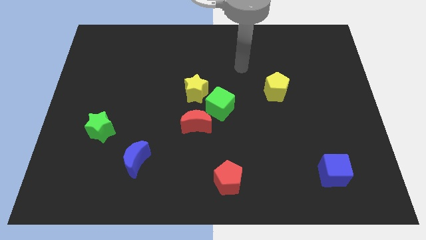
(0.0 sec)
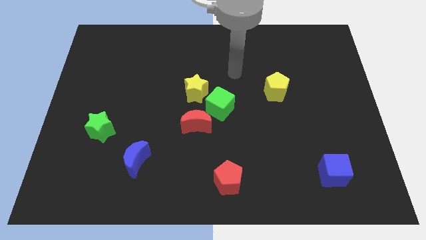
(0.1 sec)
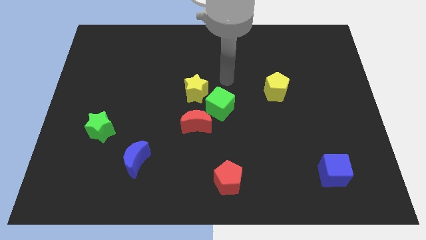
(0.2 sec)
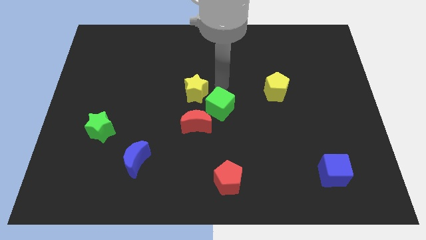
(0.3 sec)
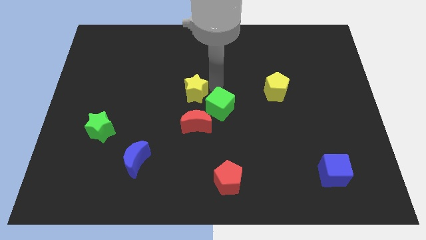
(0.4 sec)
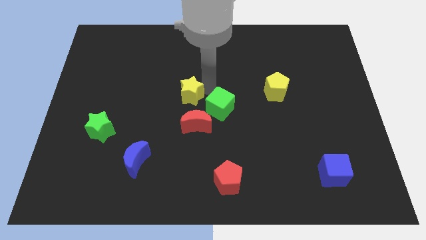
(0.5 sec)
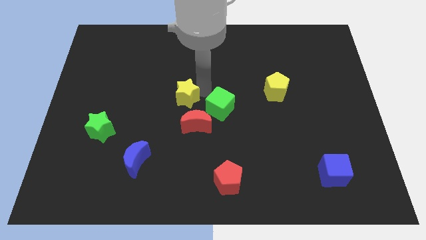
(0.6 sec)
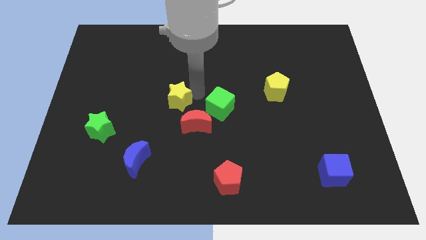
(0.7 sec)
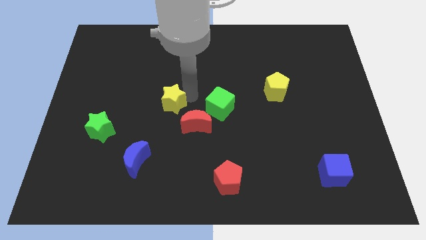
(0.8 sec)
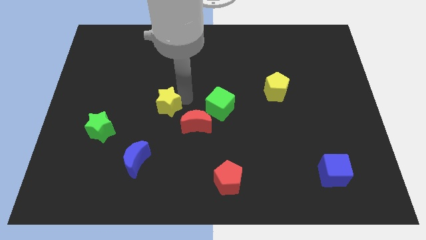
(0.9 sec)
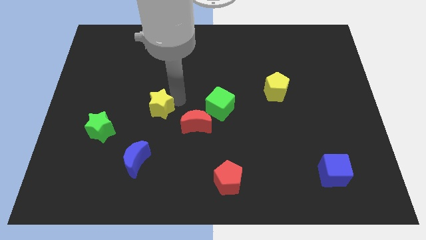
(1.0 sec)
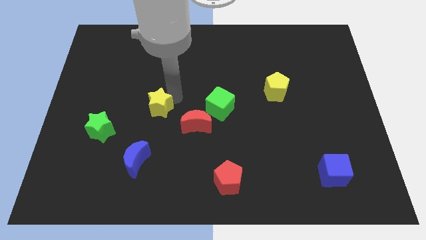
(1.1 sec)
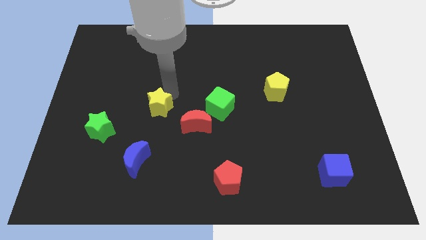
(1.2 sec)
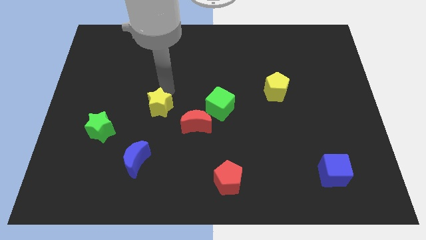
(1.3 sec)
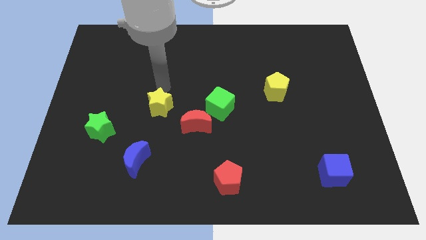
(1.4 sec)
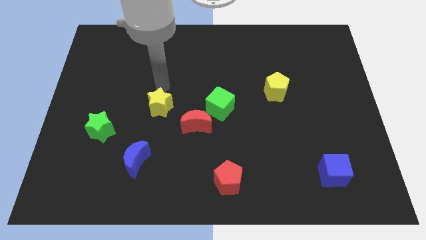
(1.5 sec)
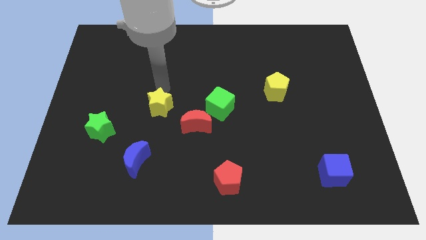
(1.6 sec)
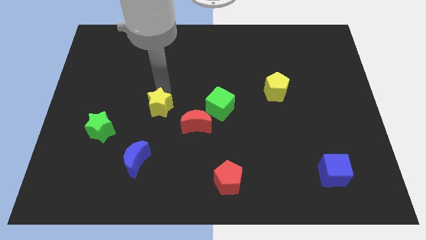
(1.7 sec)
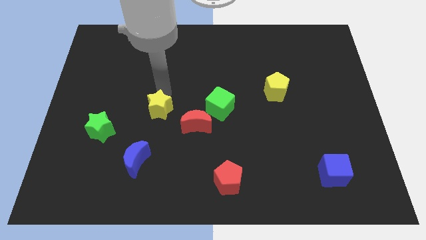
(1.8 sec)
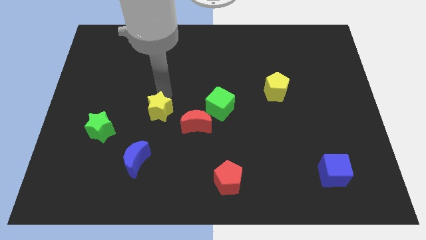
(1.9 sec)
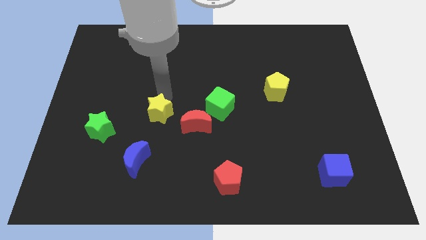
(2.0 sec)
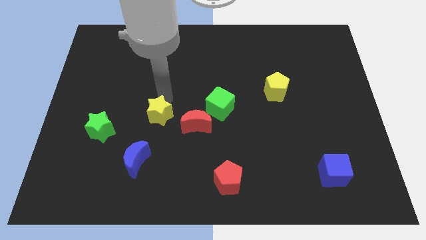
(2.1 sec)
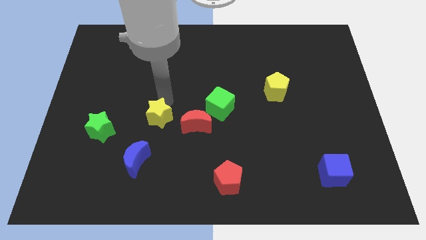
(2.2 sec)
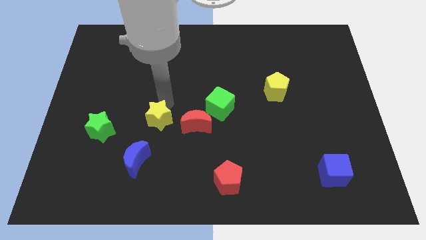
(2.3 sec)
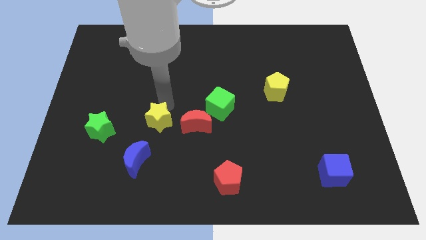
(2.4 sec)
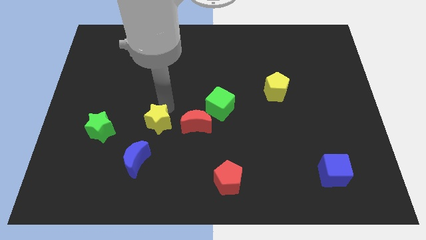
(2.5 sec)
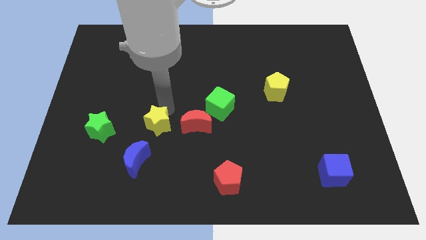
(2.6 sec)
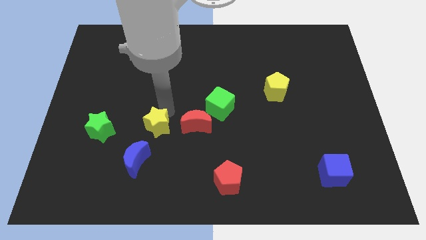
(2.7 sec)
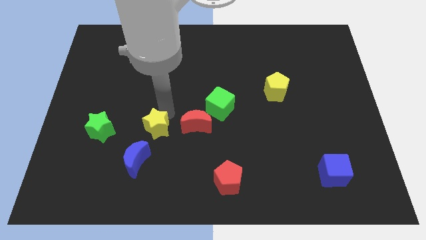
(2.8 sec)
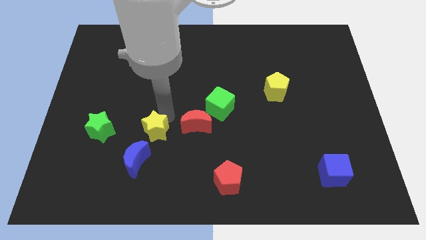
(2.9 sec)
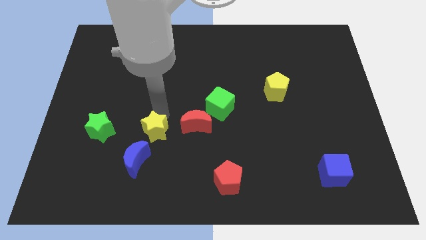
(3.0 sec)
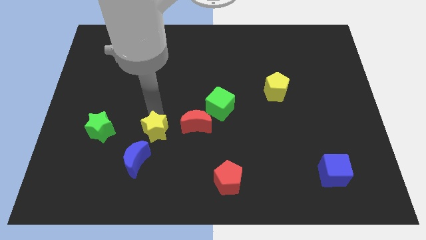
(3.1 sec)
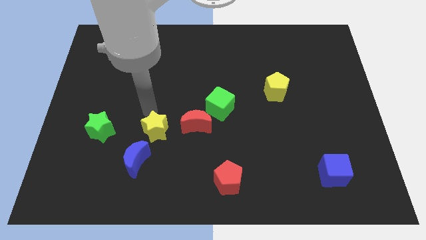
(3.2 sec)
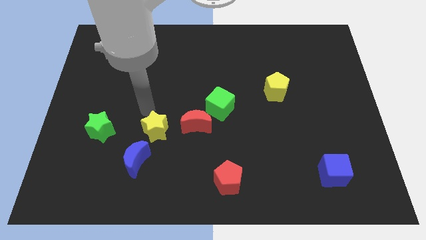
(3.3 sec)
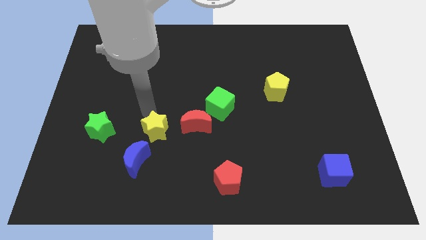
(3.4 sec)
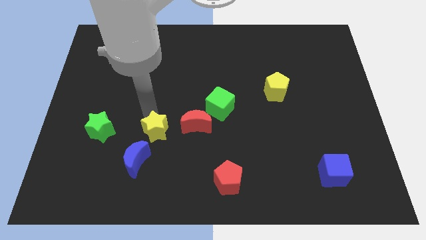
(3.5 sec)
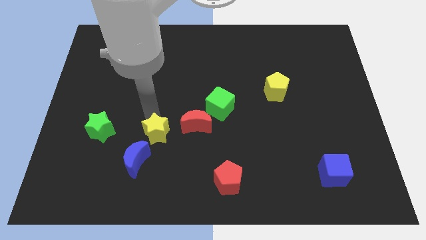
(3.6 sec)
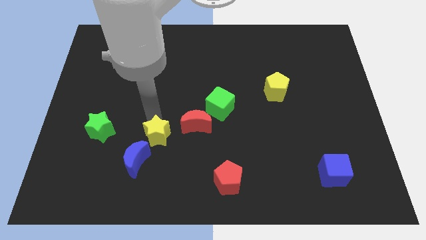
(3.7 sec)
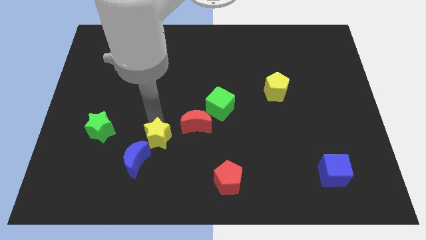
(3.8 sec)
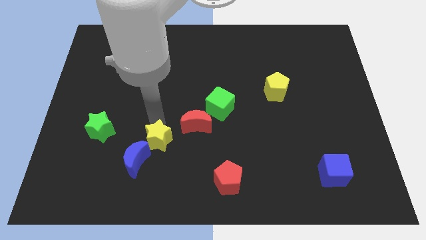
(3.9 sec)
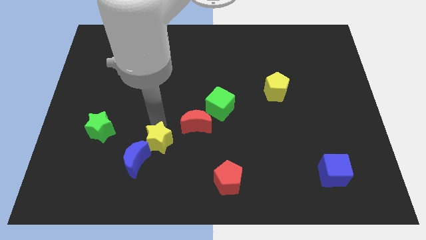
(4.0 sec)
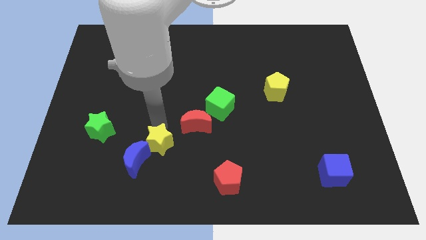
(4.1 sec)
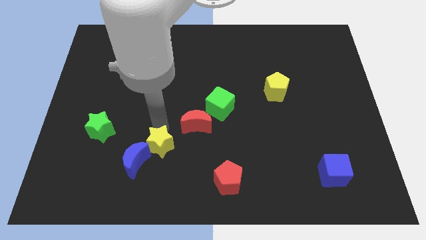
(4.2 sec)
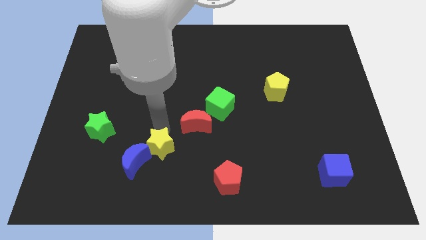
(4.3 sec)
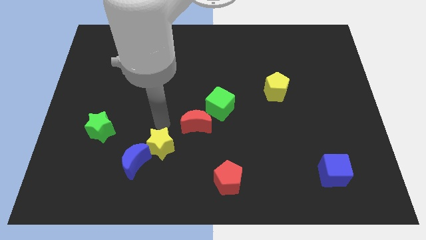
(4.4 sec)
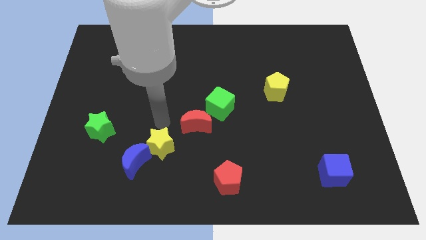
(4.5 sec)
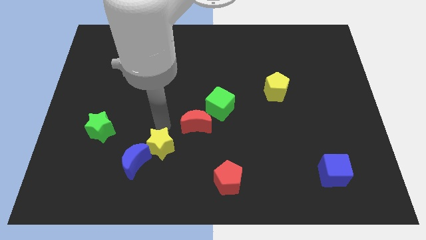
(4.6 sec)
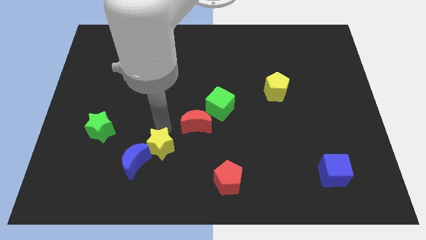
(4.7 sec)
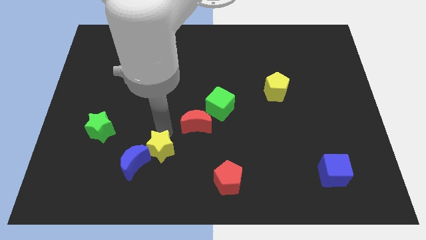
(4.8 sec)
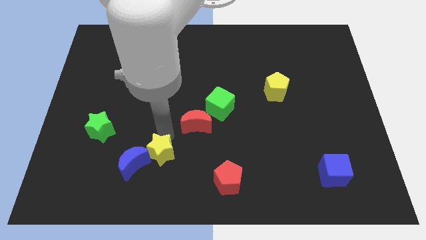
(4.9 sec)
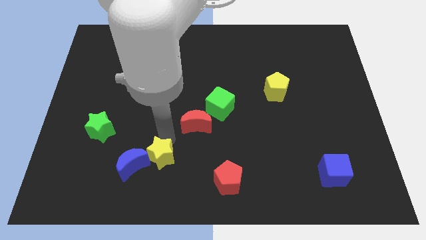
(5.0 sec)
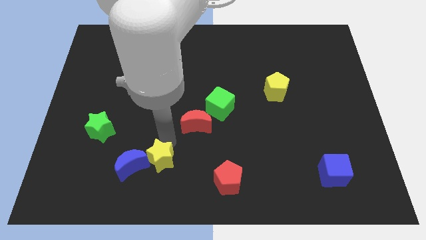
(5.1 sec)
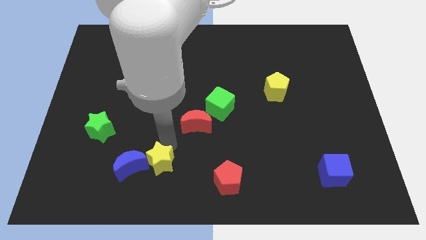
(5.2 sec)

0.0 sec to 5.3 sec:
push the yellow star to the bottom right side of the blue moon

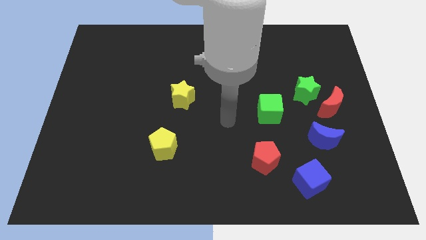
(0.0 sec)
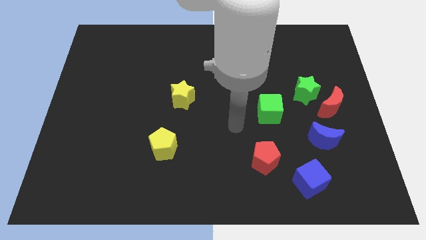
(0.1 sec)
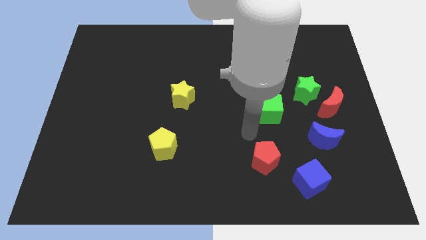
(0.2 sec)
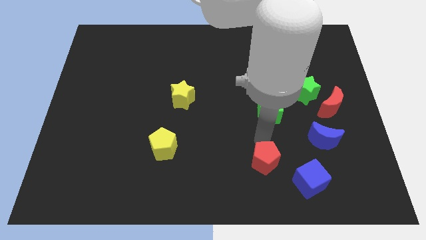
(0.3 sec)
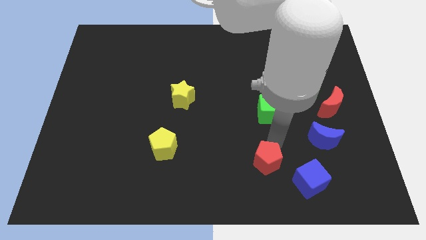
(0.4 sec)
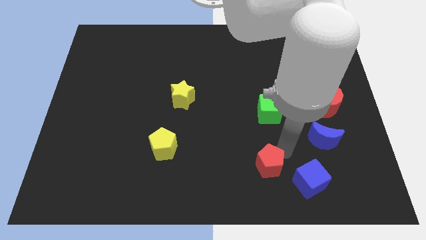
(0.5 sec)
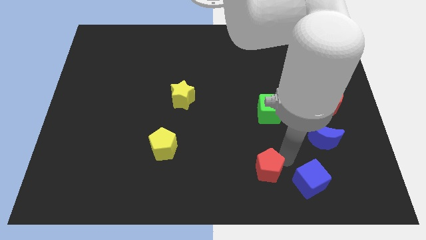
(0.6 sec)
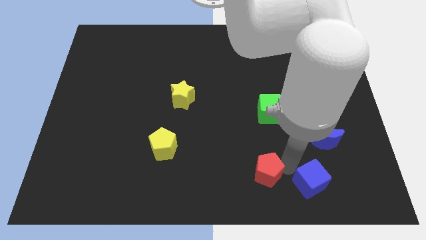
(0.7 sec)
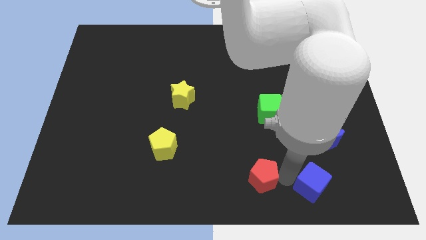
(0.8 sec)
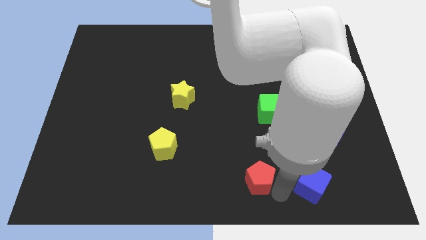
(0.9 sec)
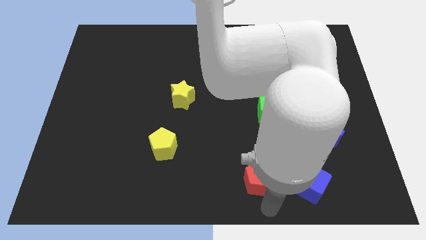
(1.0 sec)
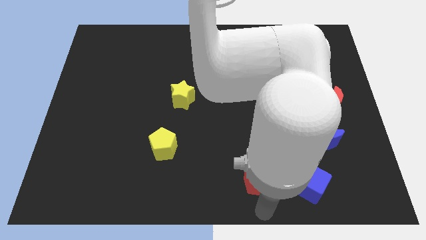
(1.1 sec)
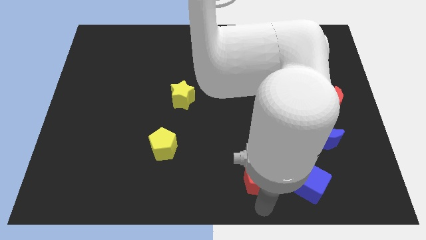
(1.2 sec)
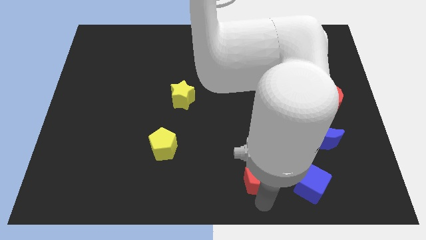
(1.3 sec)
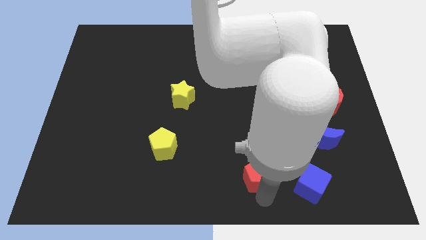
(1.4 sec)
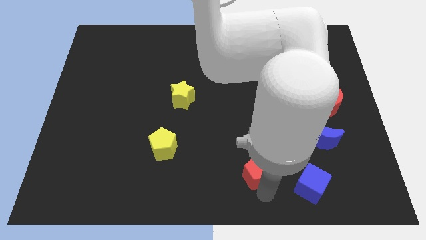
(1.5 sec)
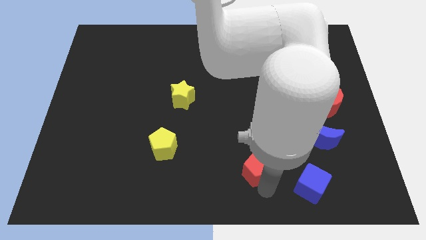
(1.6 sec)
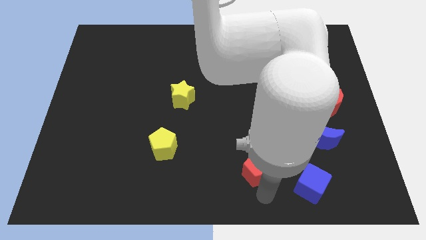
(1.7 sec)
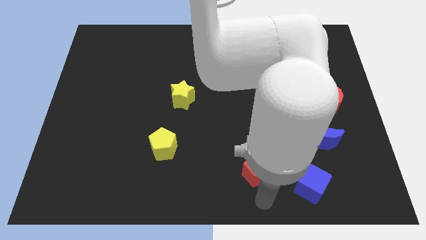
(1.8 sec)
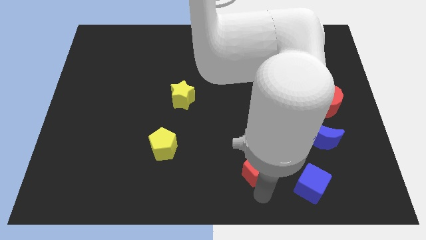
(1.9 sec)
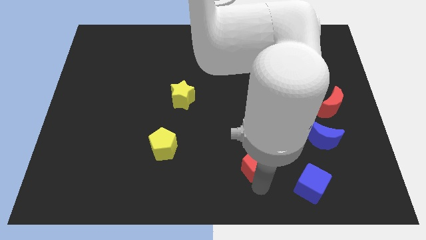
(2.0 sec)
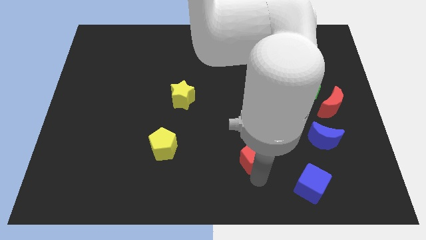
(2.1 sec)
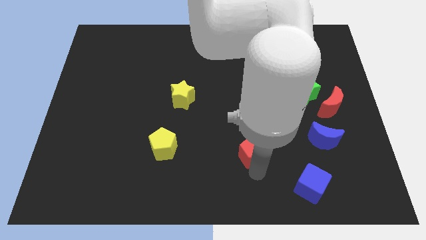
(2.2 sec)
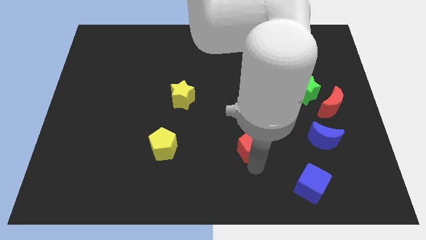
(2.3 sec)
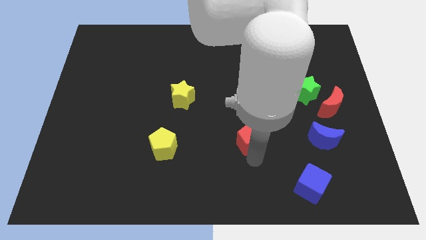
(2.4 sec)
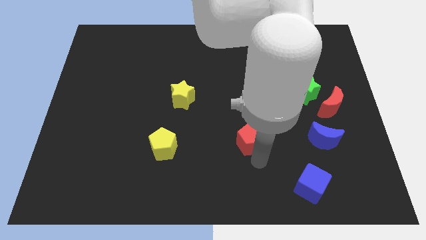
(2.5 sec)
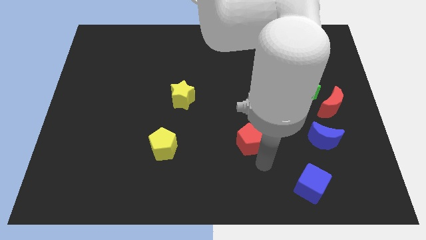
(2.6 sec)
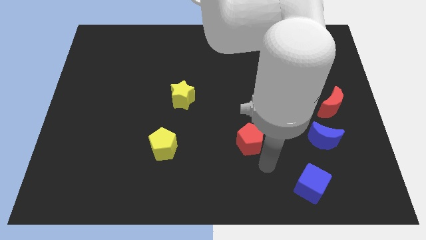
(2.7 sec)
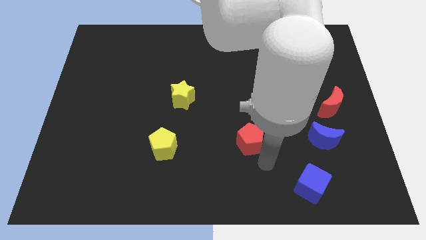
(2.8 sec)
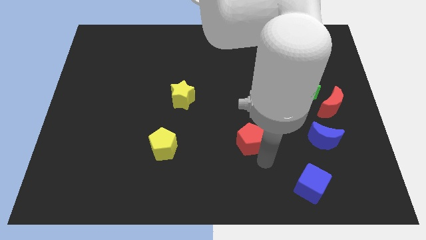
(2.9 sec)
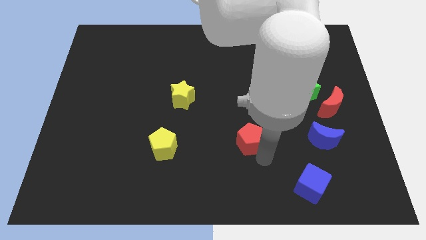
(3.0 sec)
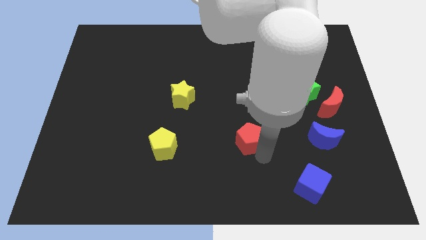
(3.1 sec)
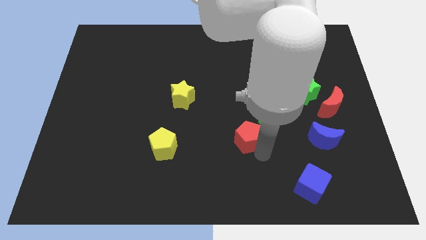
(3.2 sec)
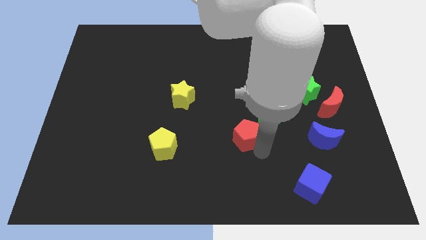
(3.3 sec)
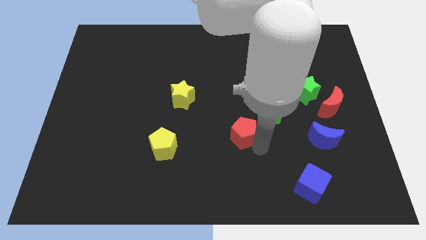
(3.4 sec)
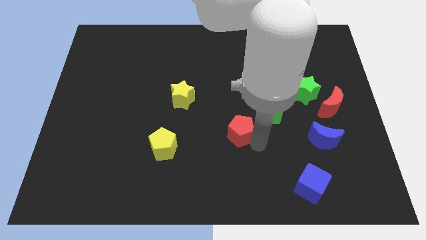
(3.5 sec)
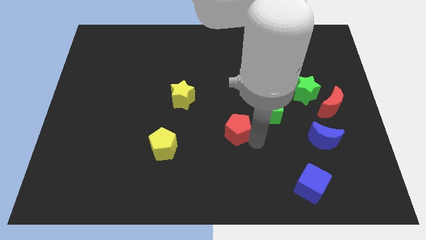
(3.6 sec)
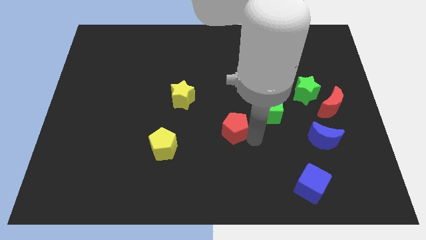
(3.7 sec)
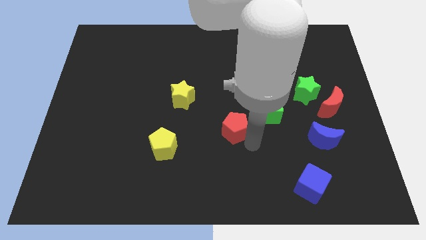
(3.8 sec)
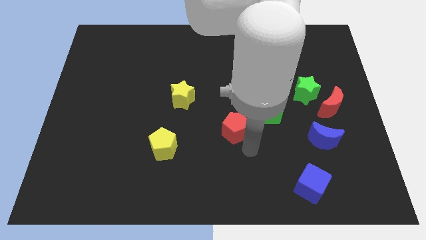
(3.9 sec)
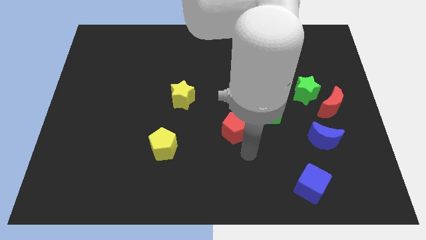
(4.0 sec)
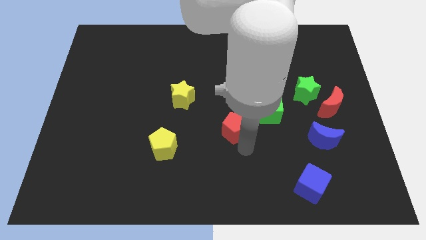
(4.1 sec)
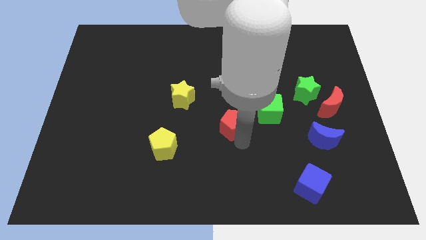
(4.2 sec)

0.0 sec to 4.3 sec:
push the red pentagon to the left side of the green cube
